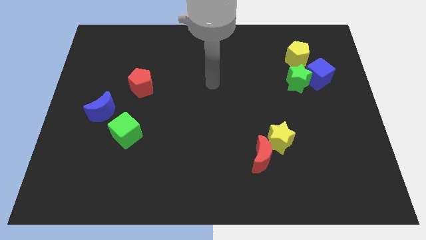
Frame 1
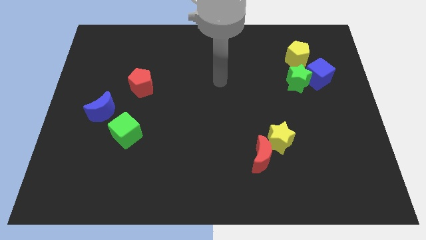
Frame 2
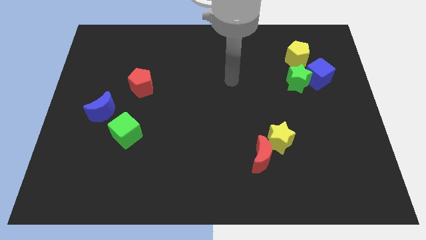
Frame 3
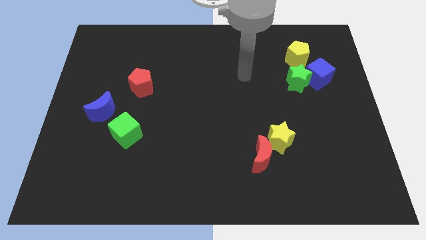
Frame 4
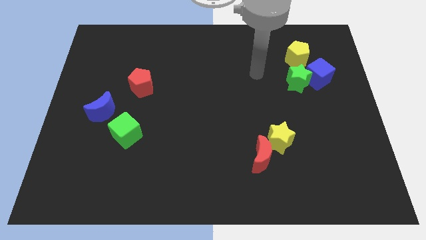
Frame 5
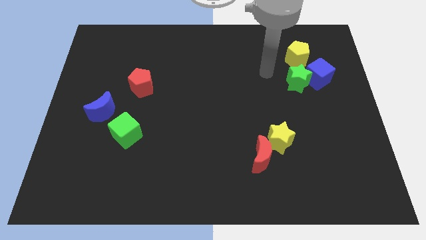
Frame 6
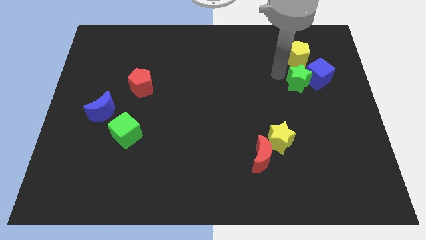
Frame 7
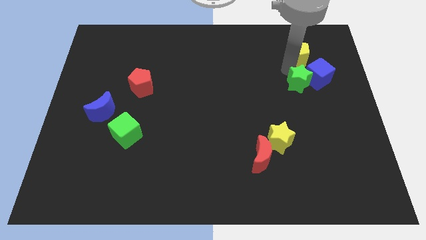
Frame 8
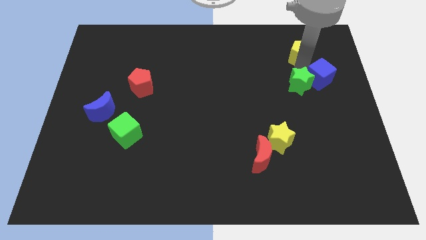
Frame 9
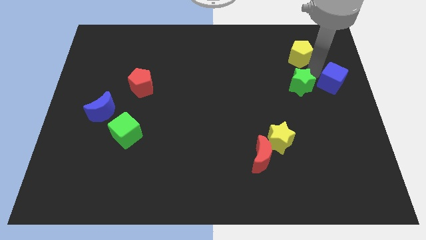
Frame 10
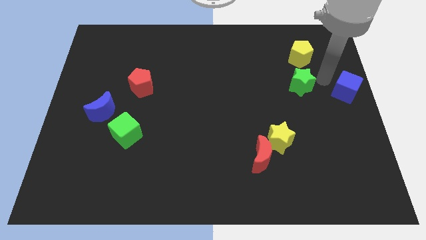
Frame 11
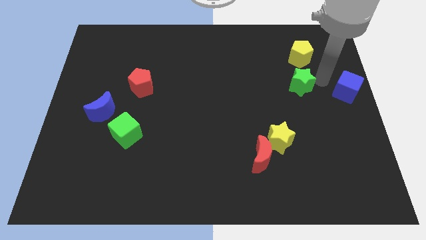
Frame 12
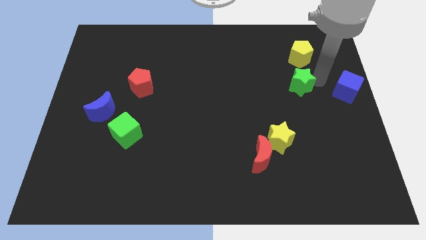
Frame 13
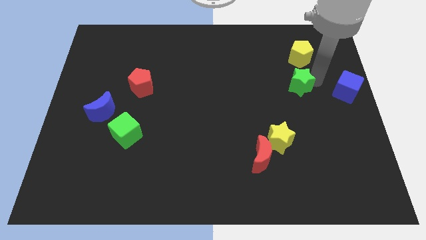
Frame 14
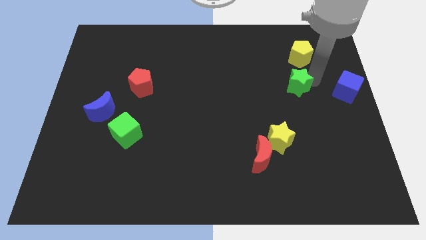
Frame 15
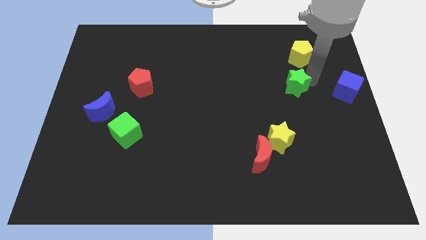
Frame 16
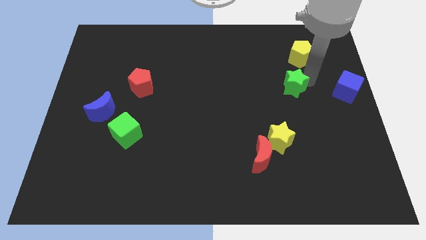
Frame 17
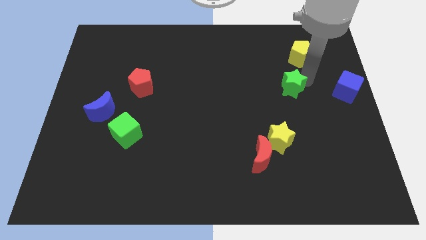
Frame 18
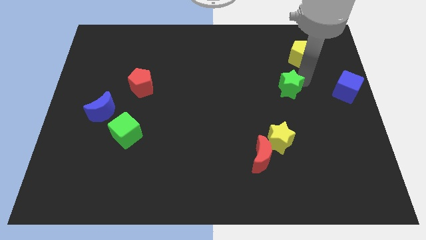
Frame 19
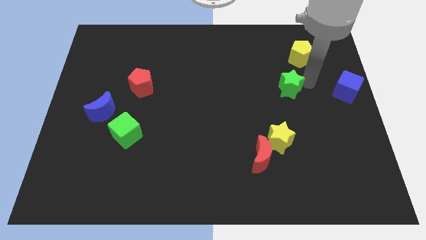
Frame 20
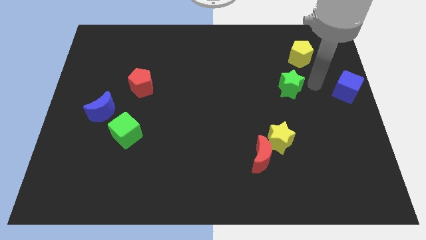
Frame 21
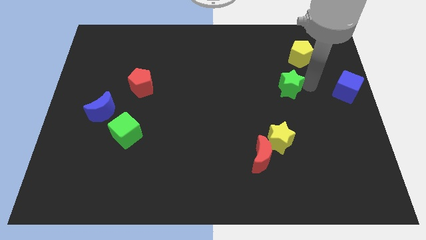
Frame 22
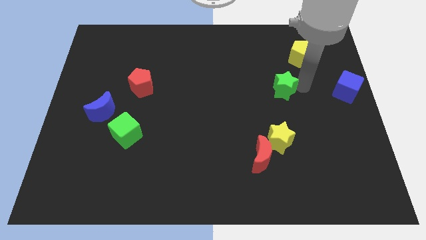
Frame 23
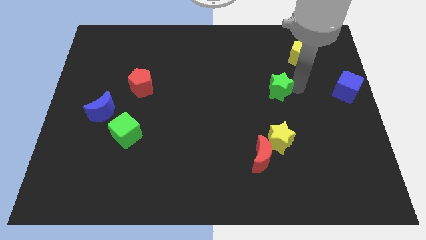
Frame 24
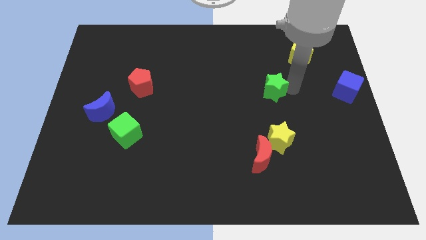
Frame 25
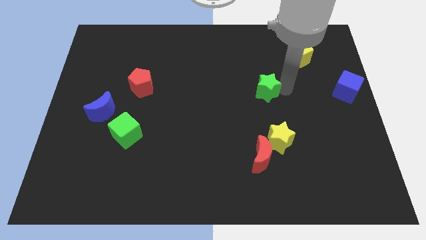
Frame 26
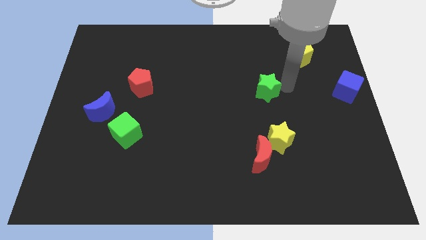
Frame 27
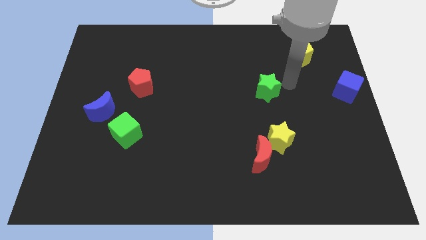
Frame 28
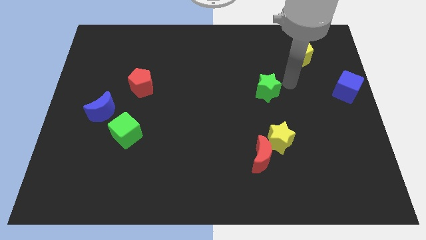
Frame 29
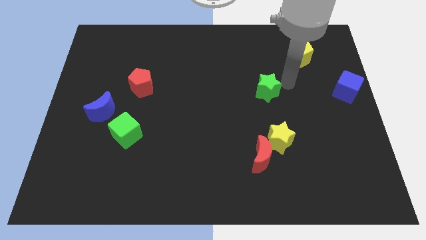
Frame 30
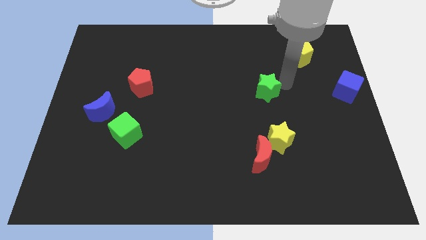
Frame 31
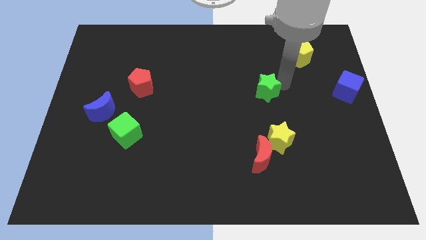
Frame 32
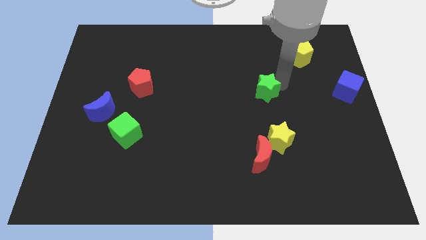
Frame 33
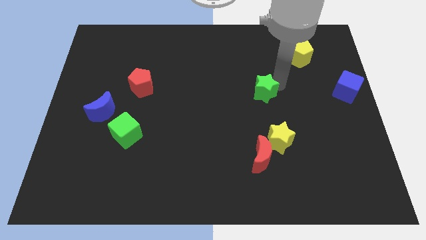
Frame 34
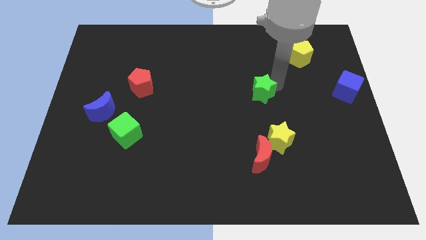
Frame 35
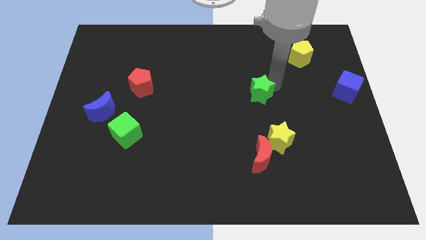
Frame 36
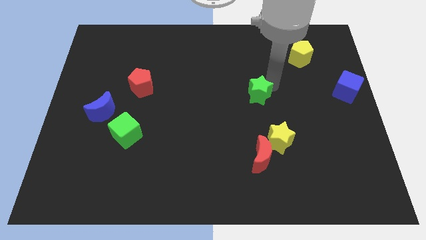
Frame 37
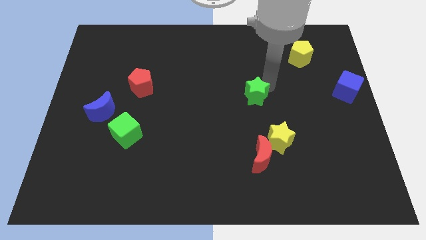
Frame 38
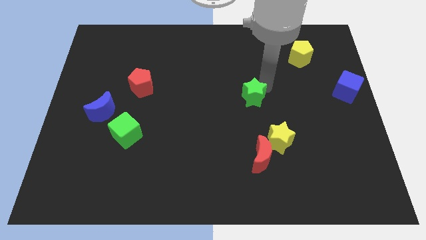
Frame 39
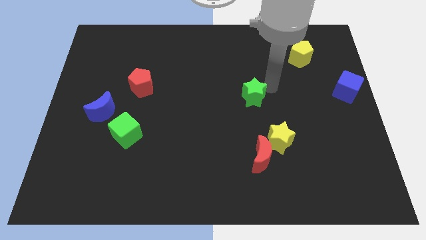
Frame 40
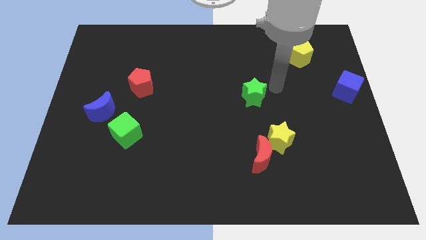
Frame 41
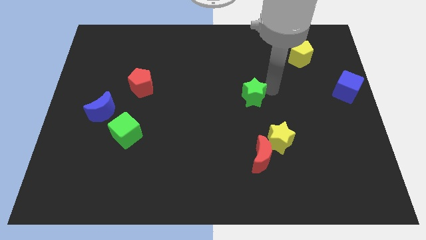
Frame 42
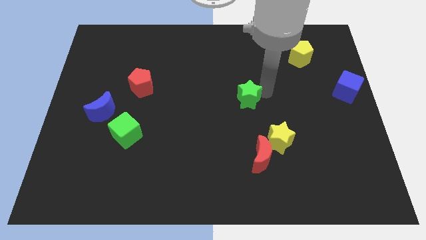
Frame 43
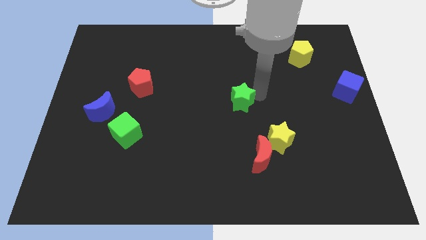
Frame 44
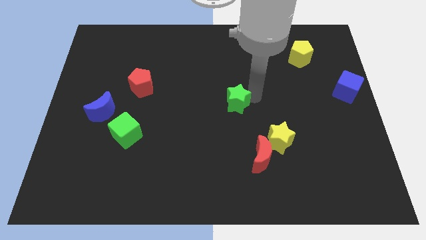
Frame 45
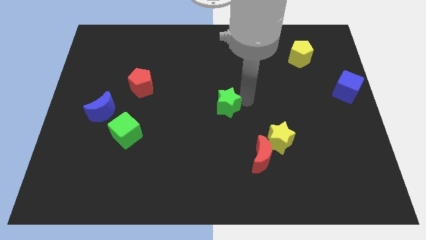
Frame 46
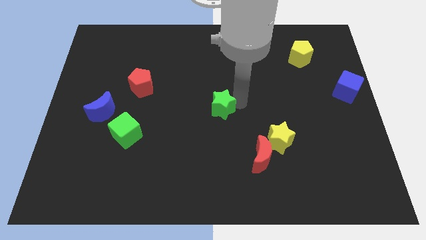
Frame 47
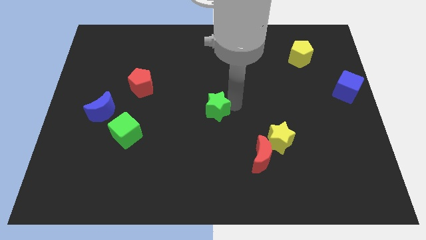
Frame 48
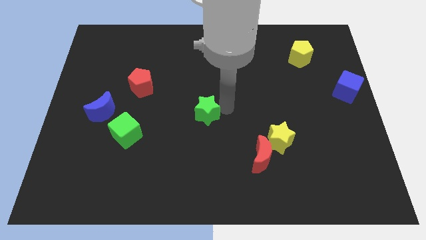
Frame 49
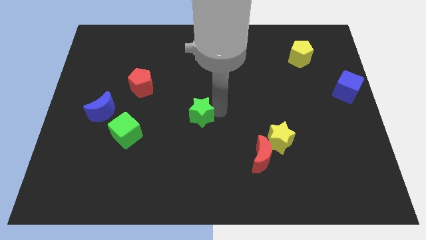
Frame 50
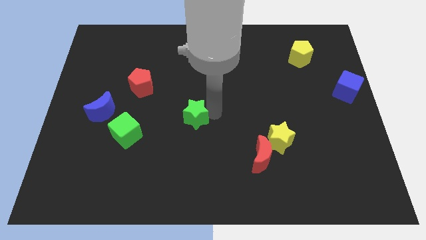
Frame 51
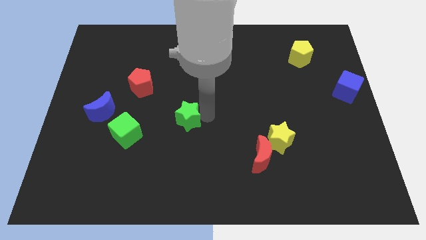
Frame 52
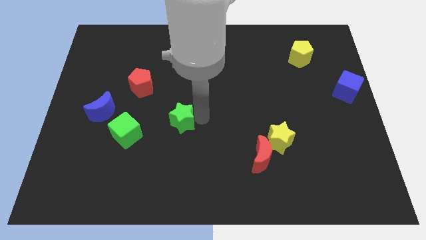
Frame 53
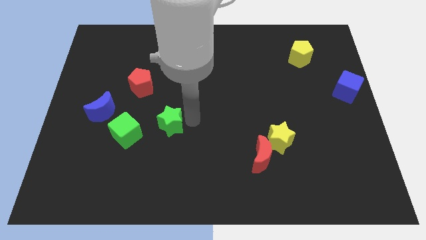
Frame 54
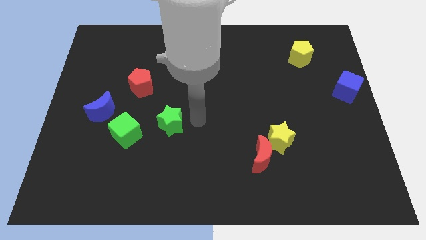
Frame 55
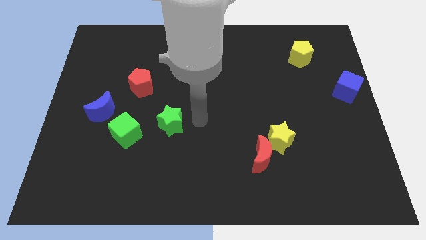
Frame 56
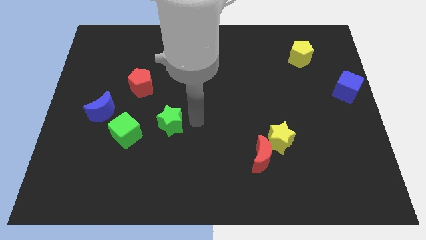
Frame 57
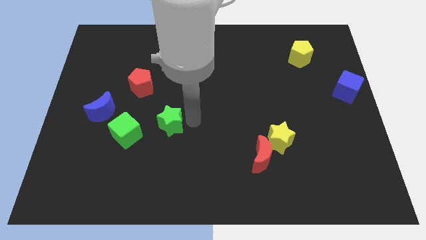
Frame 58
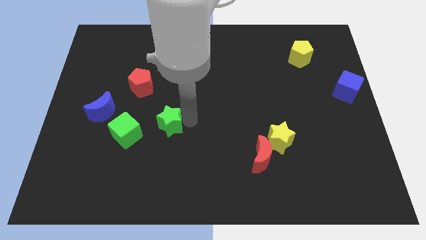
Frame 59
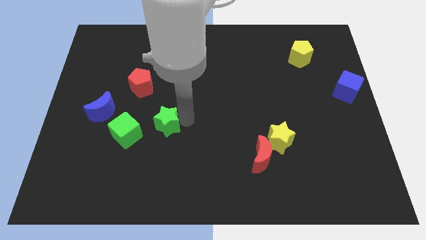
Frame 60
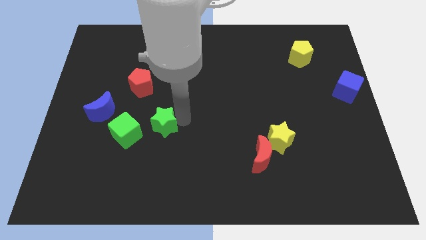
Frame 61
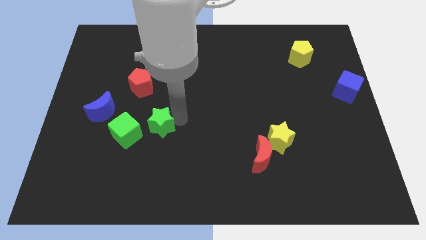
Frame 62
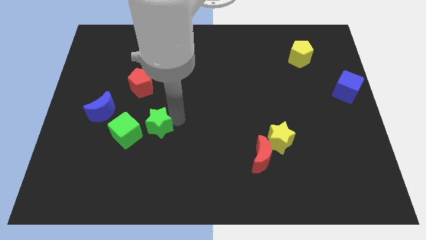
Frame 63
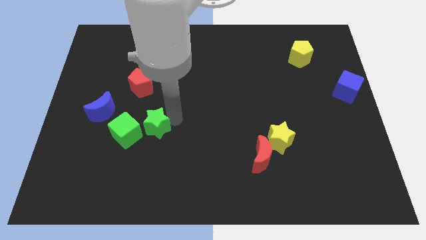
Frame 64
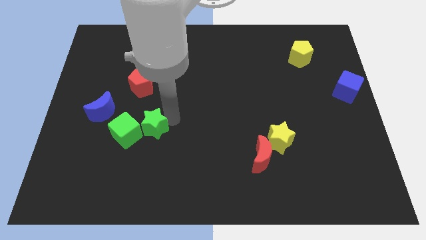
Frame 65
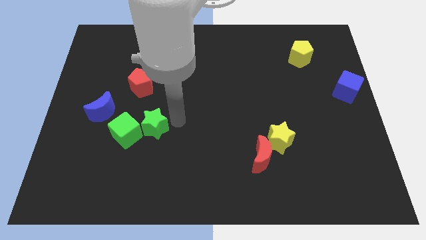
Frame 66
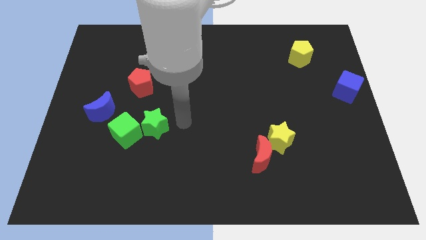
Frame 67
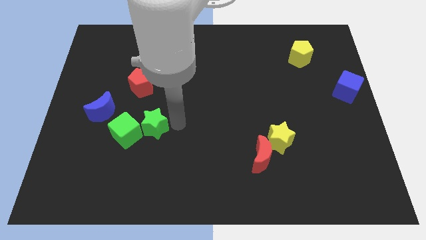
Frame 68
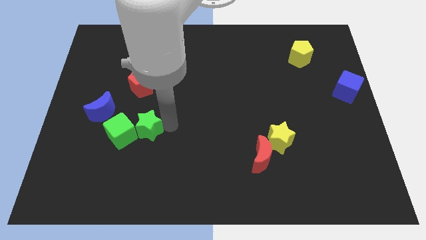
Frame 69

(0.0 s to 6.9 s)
put the green star close to the green cube
